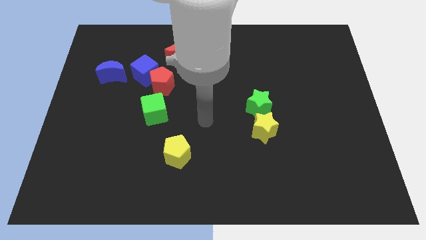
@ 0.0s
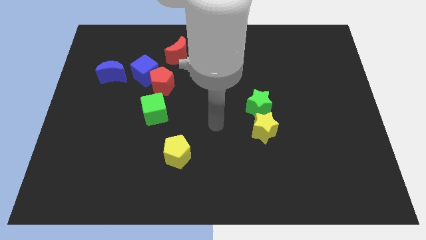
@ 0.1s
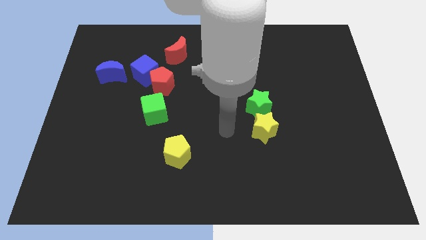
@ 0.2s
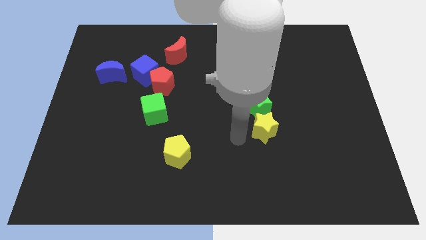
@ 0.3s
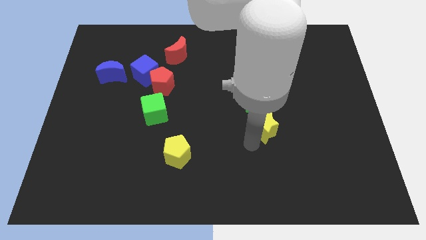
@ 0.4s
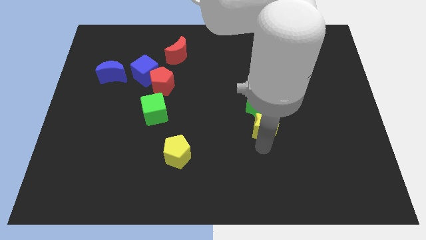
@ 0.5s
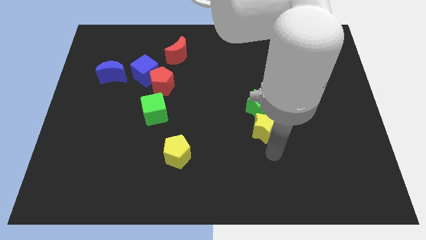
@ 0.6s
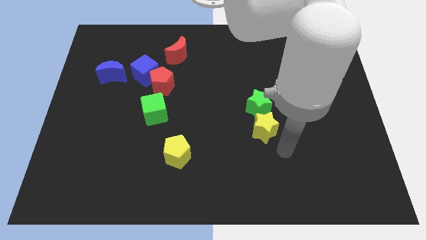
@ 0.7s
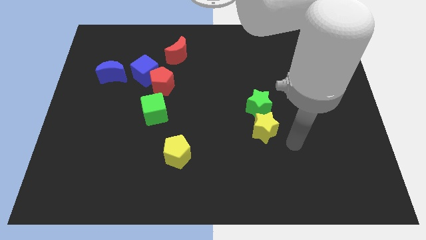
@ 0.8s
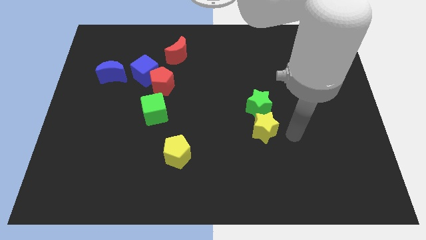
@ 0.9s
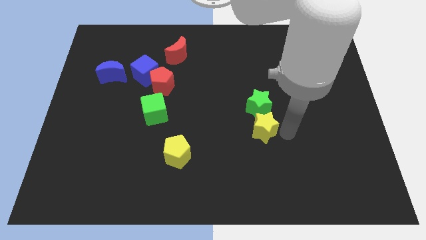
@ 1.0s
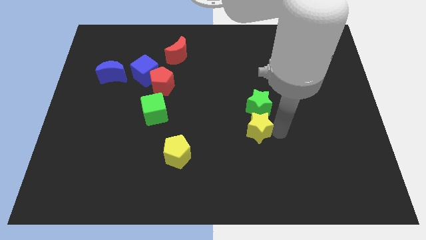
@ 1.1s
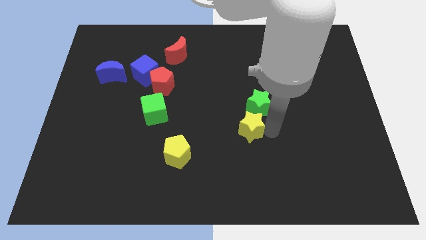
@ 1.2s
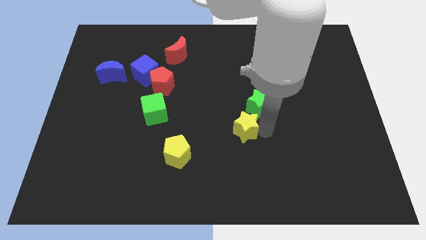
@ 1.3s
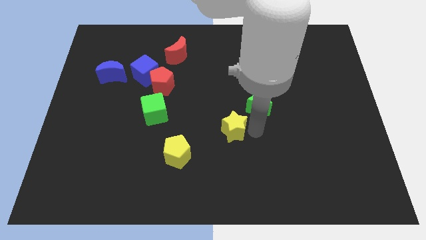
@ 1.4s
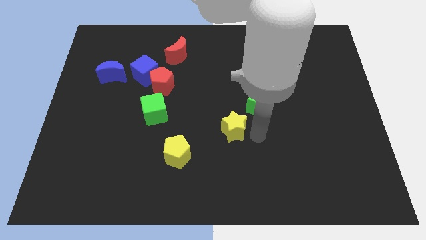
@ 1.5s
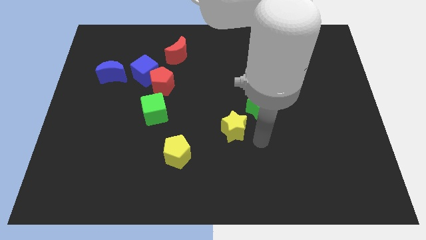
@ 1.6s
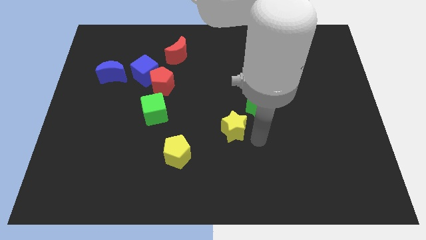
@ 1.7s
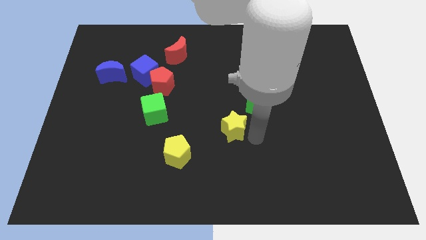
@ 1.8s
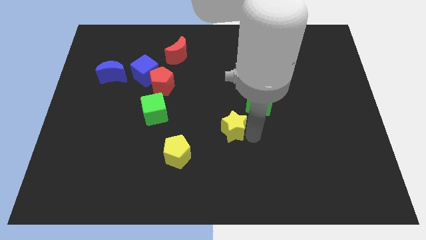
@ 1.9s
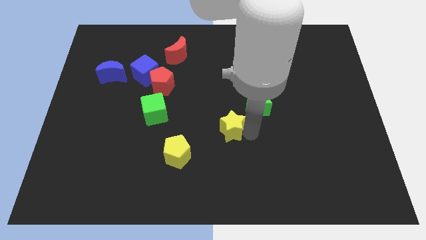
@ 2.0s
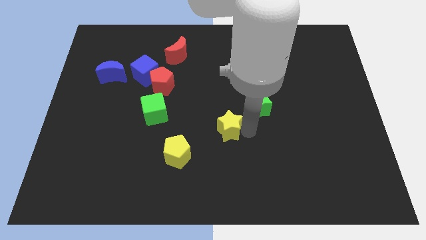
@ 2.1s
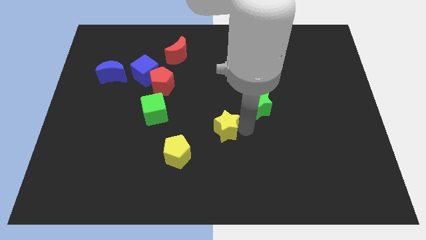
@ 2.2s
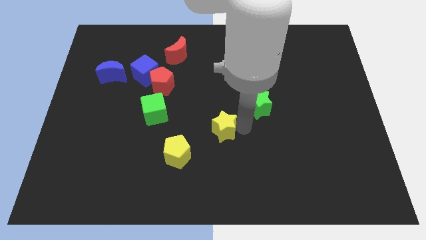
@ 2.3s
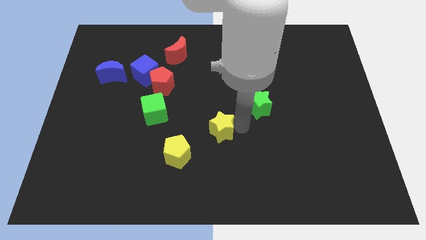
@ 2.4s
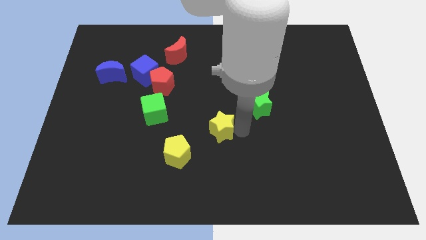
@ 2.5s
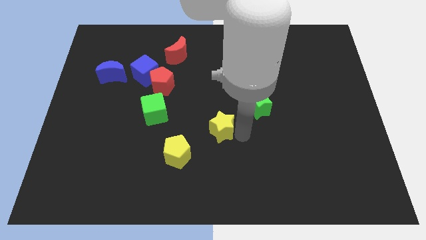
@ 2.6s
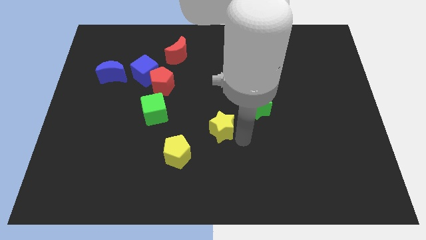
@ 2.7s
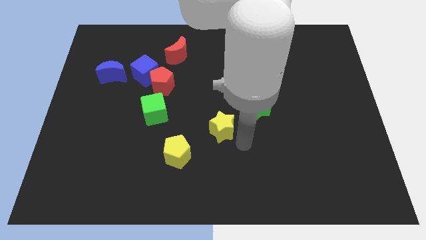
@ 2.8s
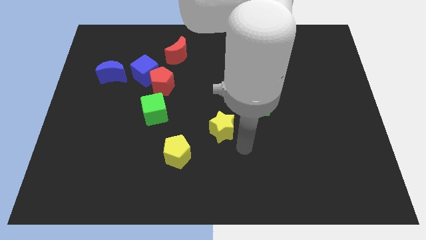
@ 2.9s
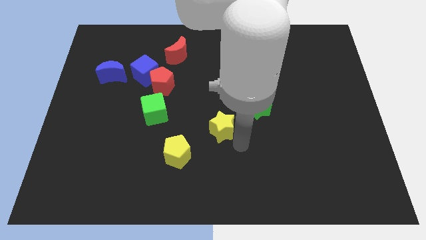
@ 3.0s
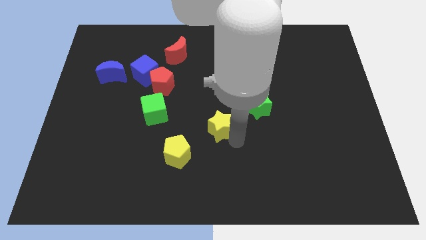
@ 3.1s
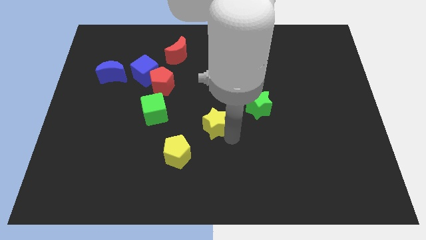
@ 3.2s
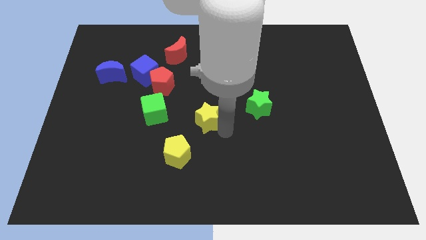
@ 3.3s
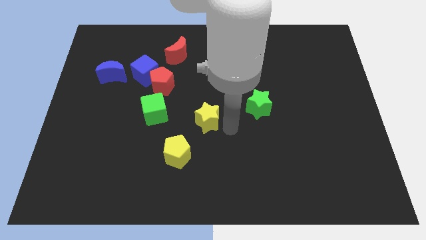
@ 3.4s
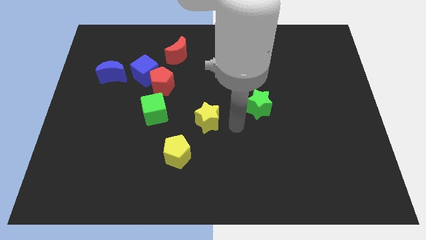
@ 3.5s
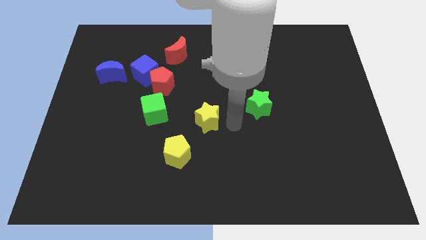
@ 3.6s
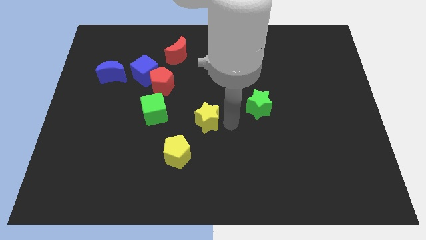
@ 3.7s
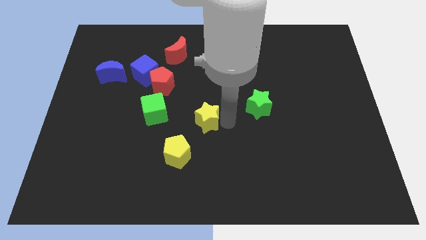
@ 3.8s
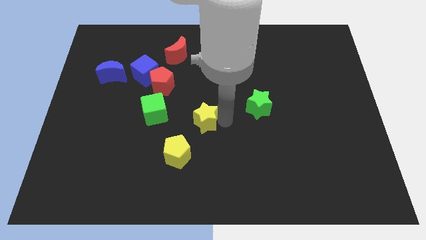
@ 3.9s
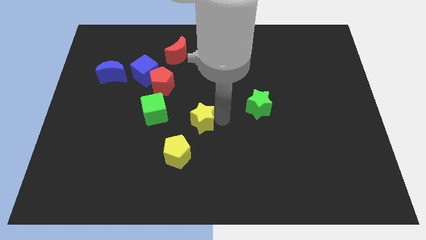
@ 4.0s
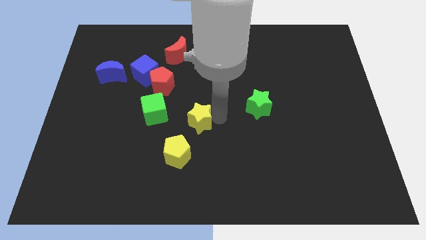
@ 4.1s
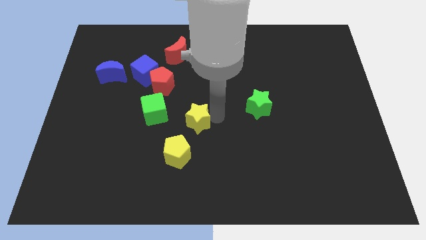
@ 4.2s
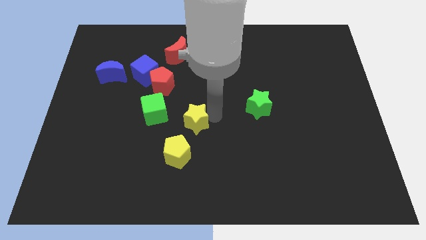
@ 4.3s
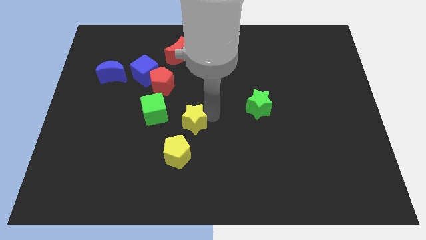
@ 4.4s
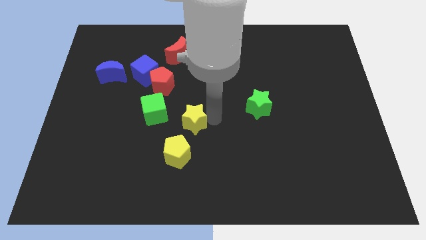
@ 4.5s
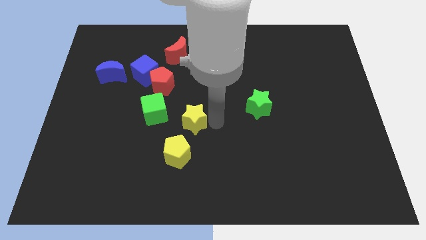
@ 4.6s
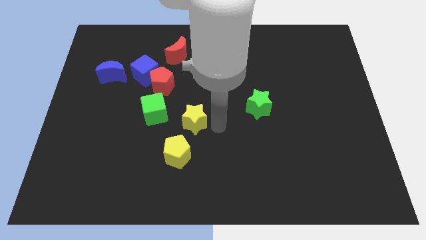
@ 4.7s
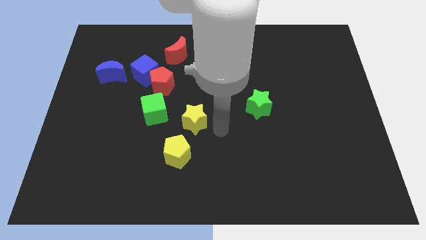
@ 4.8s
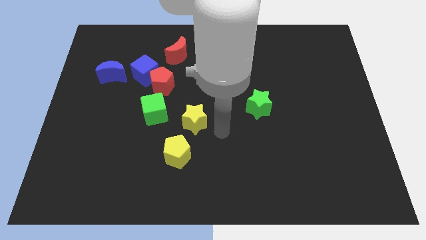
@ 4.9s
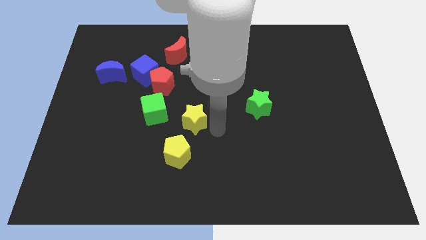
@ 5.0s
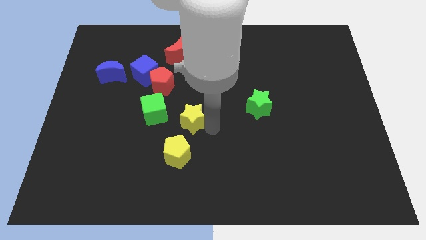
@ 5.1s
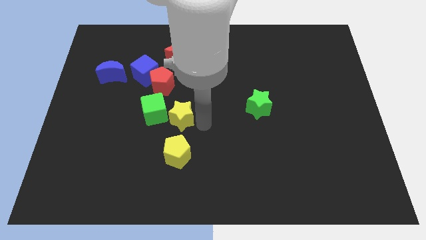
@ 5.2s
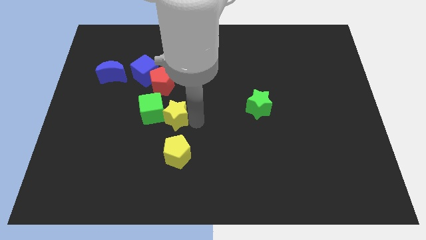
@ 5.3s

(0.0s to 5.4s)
move the yellow star next to the green cube

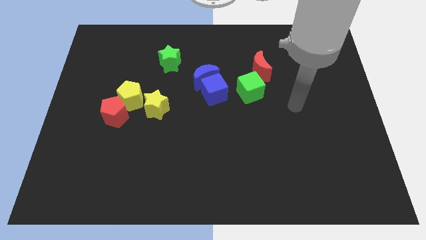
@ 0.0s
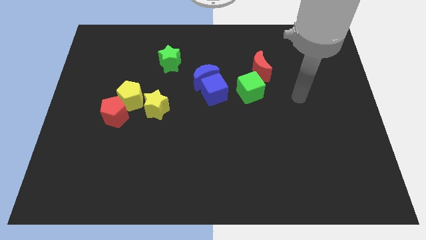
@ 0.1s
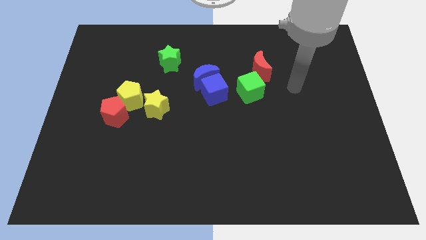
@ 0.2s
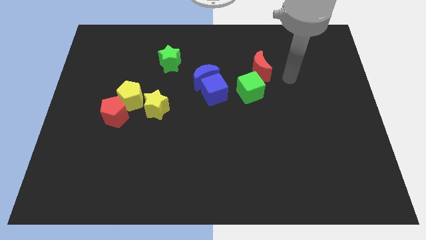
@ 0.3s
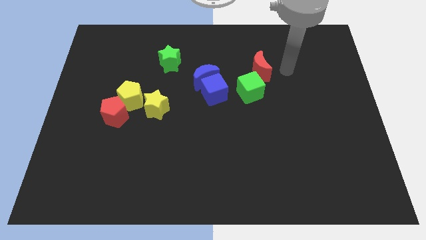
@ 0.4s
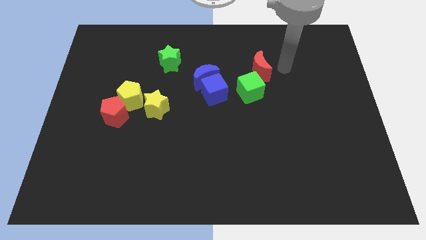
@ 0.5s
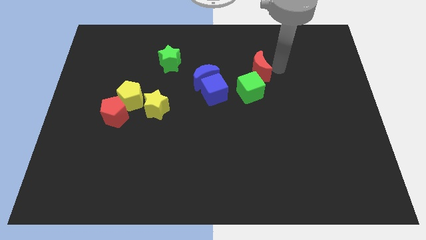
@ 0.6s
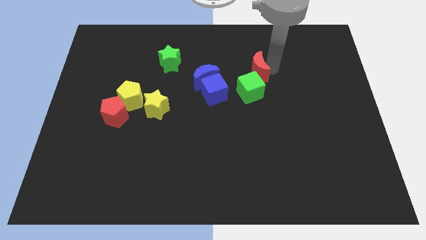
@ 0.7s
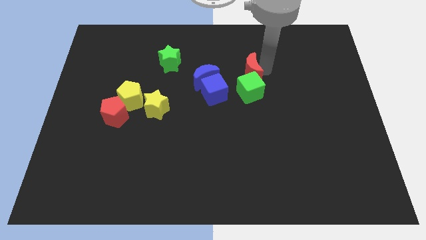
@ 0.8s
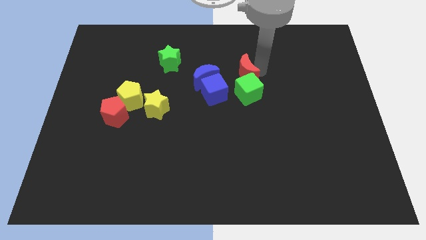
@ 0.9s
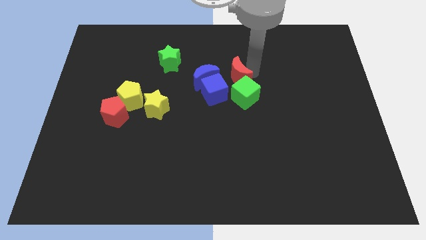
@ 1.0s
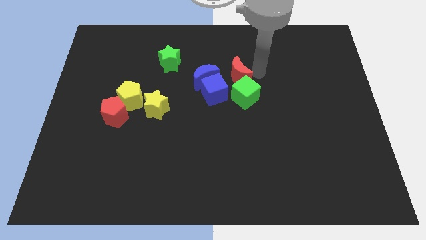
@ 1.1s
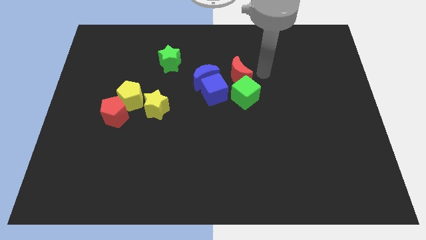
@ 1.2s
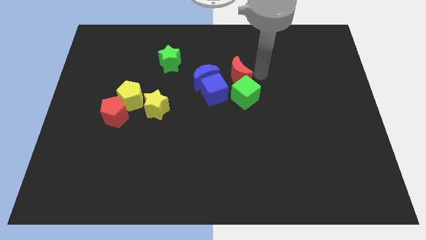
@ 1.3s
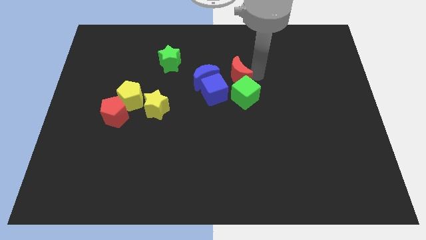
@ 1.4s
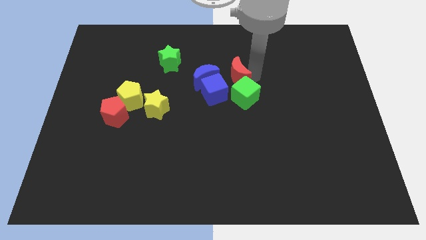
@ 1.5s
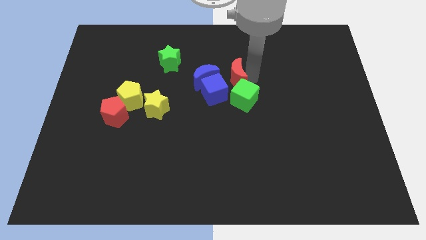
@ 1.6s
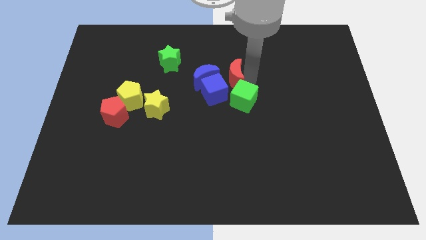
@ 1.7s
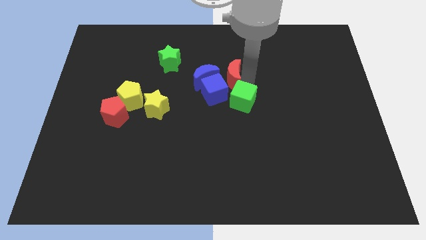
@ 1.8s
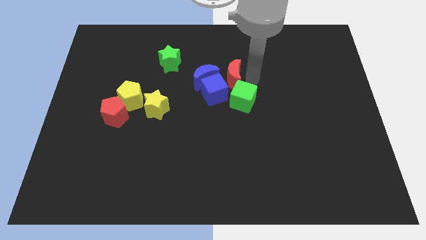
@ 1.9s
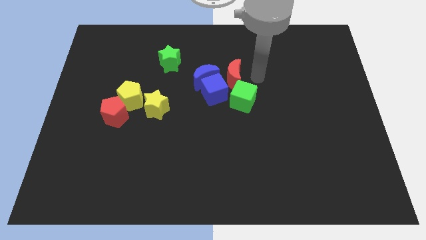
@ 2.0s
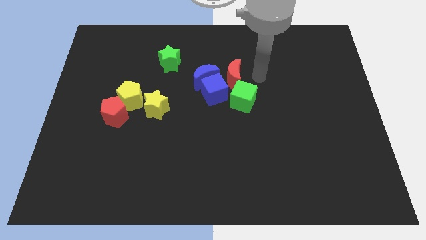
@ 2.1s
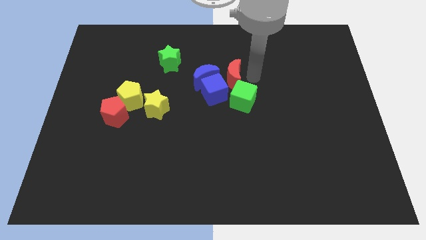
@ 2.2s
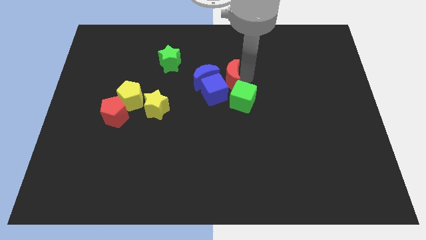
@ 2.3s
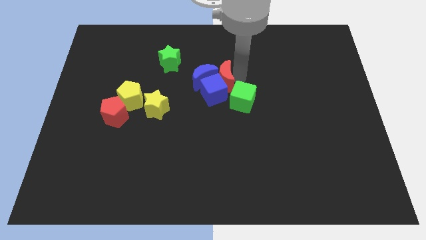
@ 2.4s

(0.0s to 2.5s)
put the red moon to the blue moon
